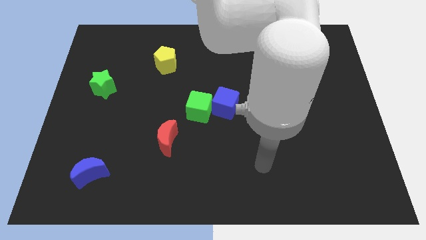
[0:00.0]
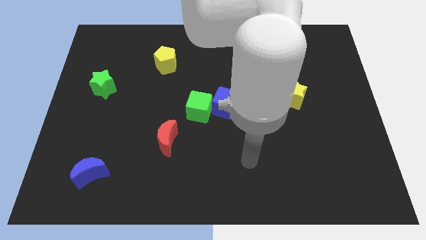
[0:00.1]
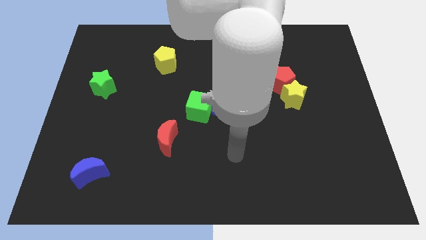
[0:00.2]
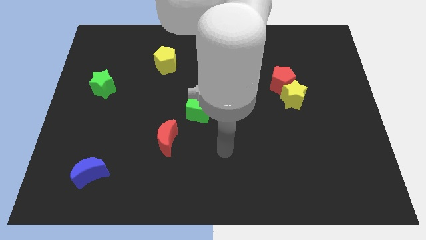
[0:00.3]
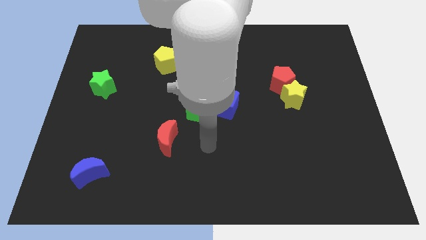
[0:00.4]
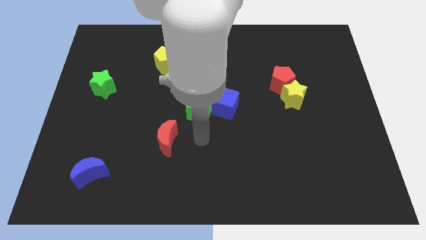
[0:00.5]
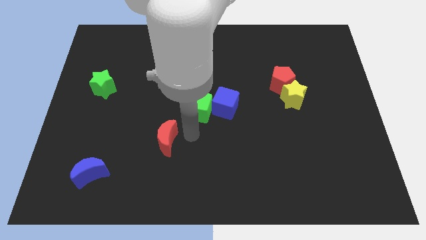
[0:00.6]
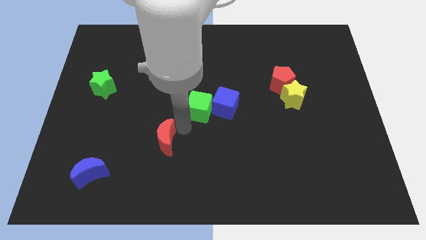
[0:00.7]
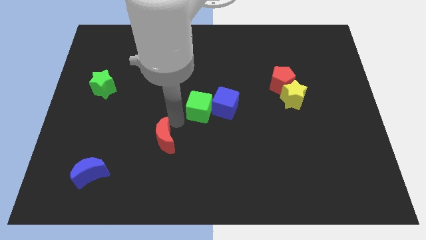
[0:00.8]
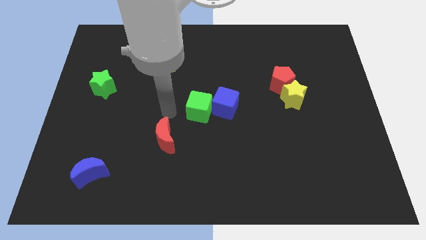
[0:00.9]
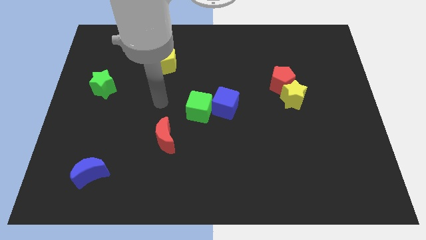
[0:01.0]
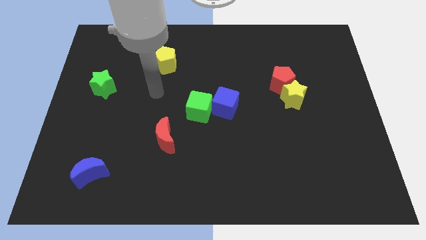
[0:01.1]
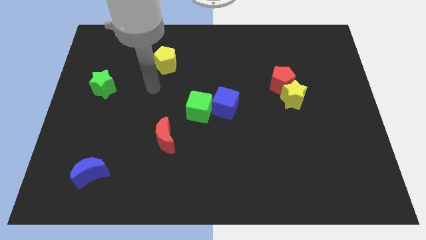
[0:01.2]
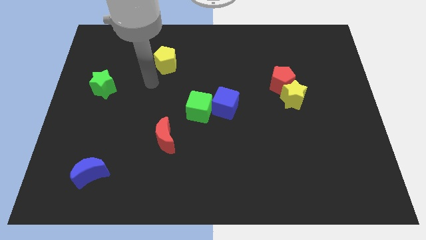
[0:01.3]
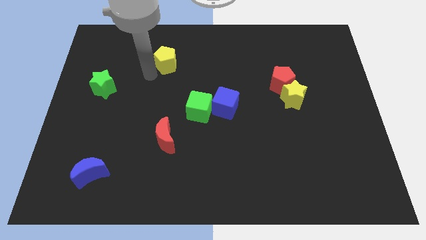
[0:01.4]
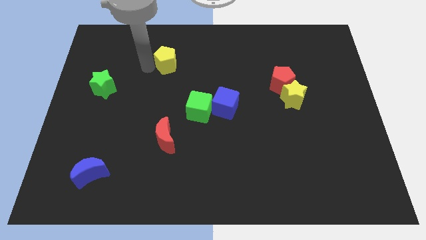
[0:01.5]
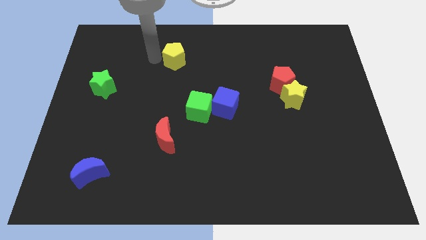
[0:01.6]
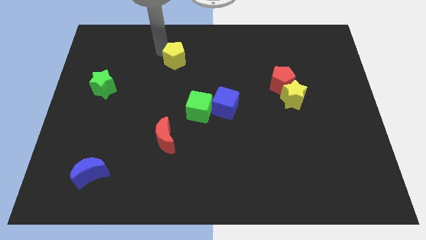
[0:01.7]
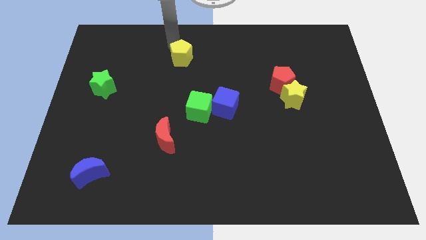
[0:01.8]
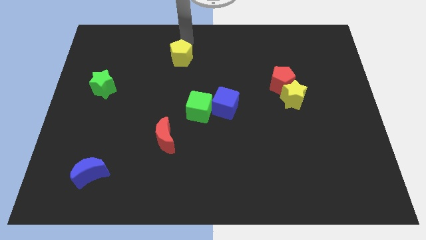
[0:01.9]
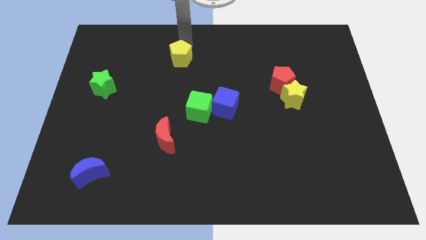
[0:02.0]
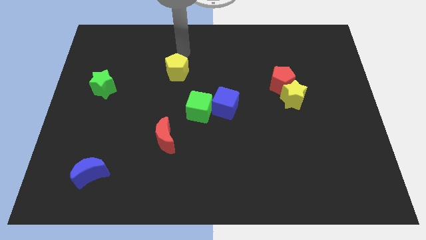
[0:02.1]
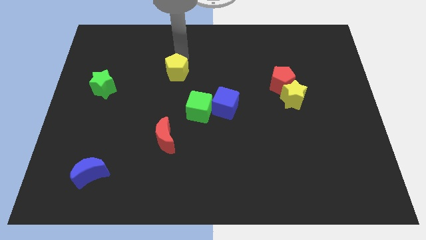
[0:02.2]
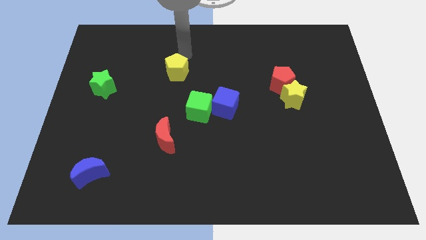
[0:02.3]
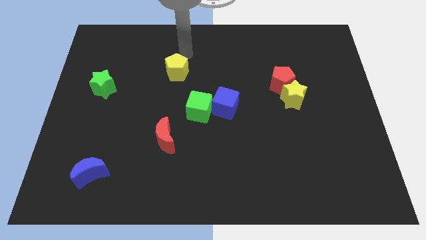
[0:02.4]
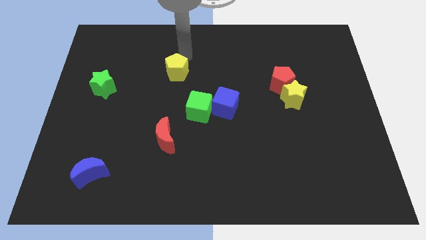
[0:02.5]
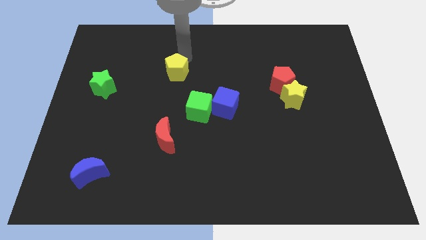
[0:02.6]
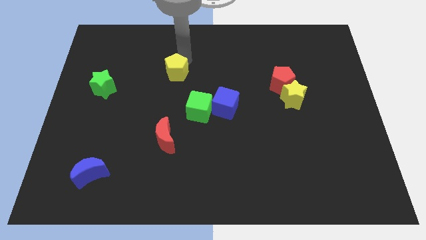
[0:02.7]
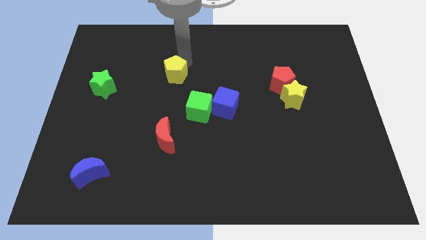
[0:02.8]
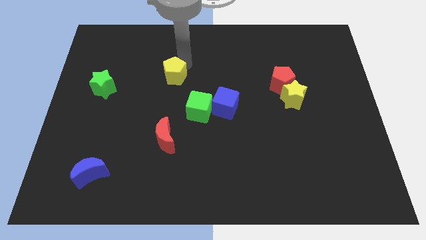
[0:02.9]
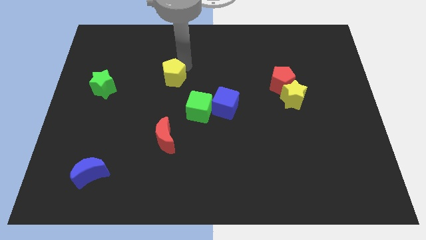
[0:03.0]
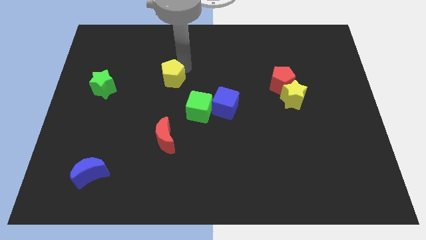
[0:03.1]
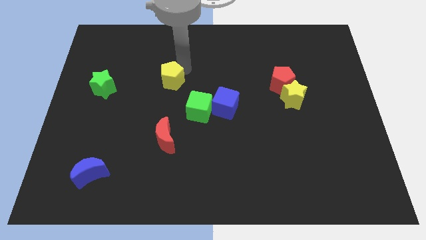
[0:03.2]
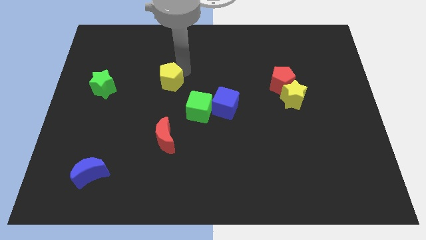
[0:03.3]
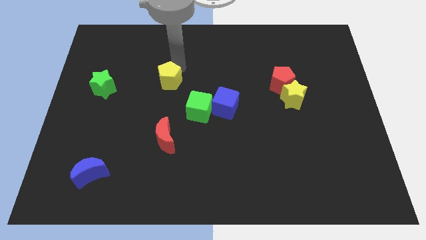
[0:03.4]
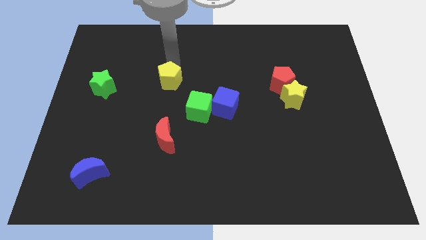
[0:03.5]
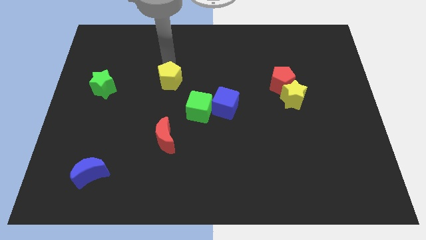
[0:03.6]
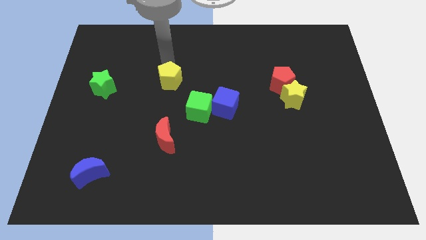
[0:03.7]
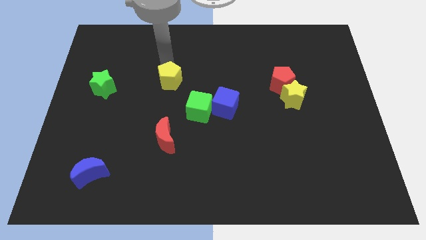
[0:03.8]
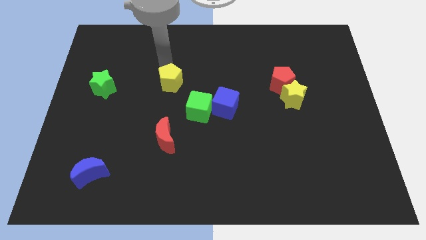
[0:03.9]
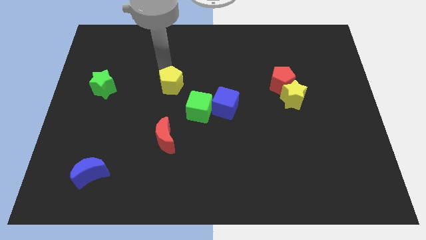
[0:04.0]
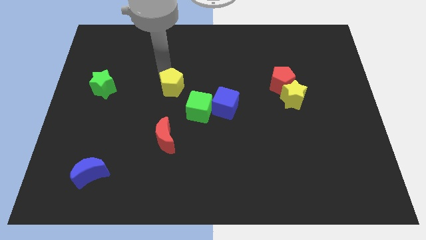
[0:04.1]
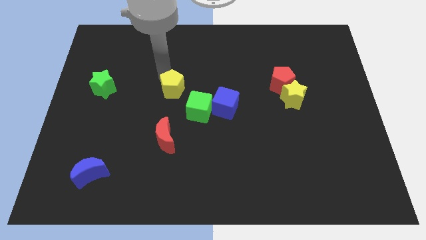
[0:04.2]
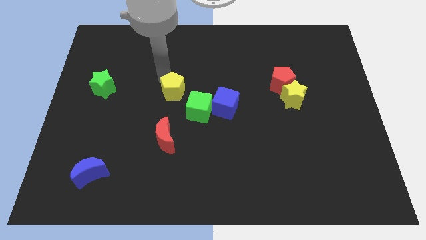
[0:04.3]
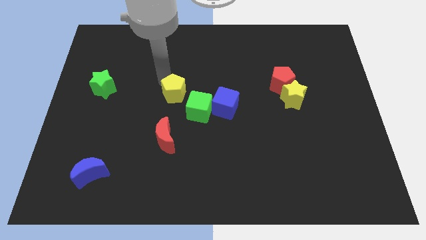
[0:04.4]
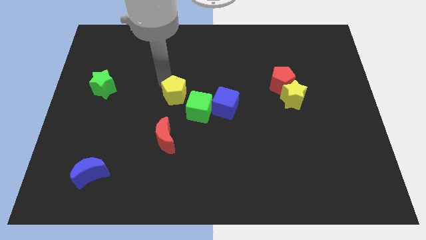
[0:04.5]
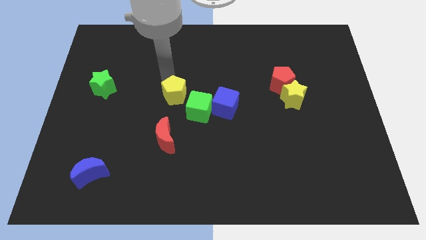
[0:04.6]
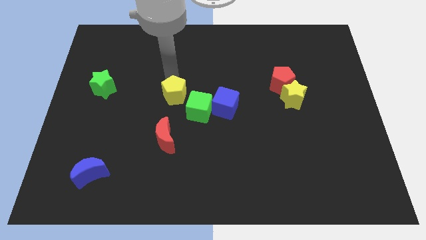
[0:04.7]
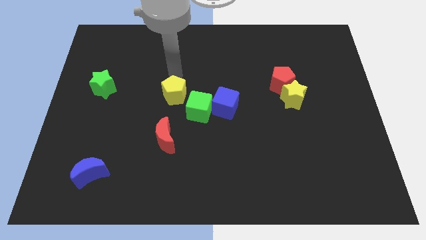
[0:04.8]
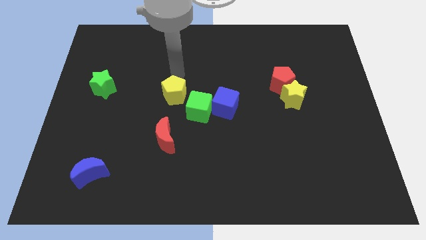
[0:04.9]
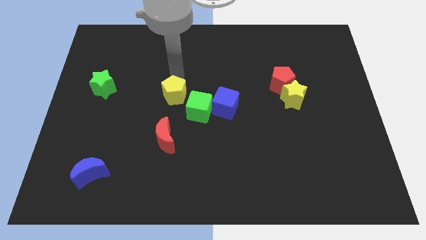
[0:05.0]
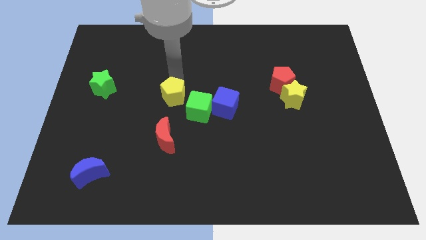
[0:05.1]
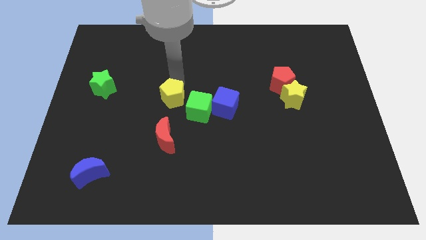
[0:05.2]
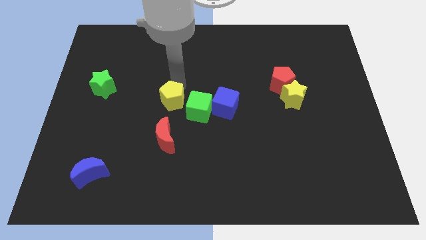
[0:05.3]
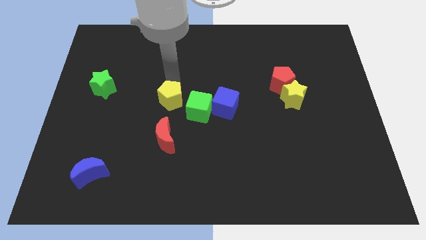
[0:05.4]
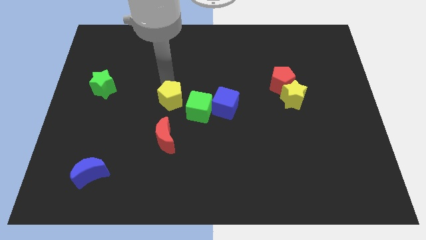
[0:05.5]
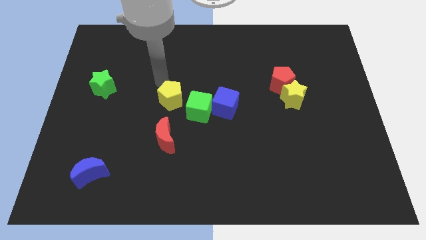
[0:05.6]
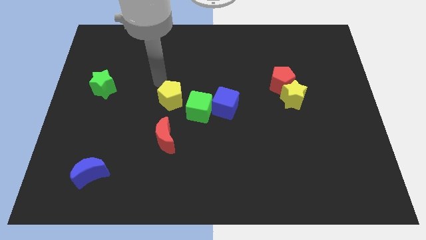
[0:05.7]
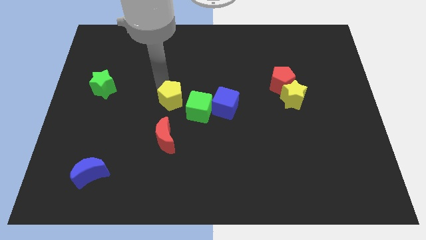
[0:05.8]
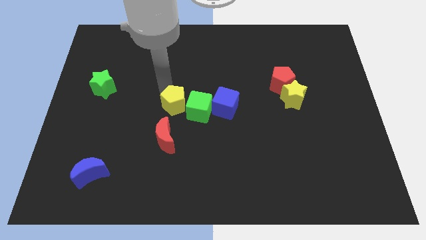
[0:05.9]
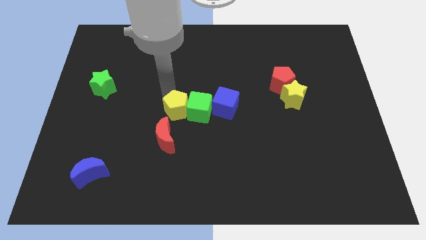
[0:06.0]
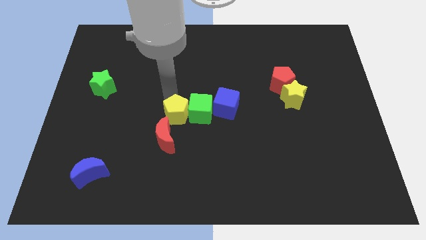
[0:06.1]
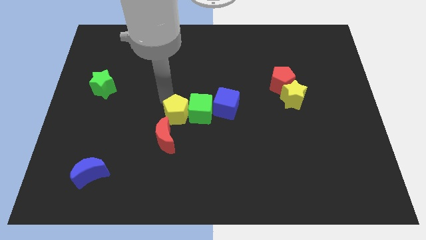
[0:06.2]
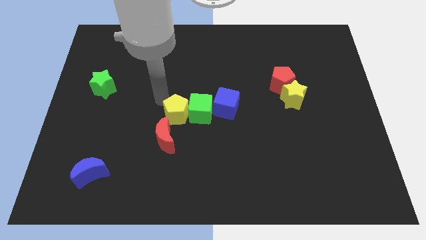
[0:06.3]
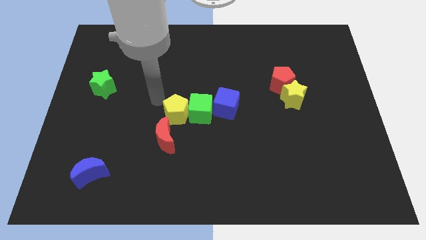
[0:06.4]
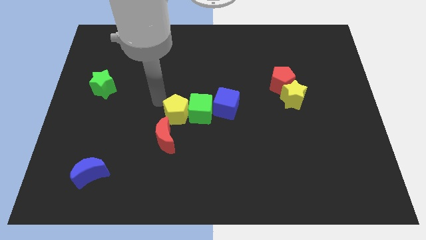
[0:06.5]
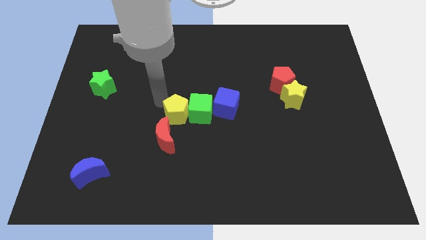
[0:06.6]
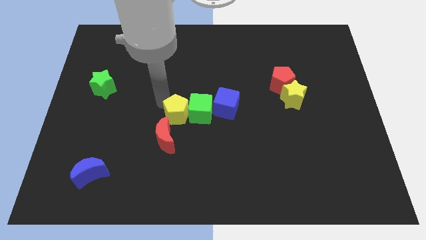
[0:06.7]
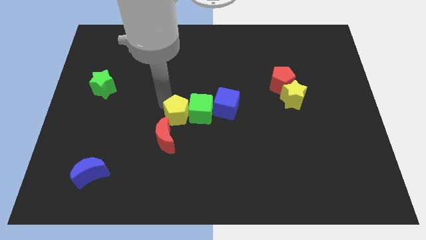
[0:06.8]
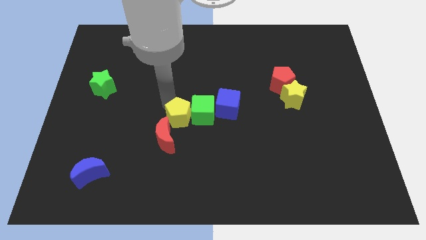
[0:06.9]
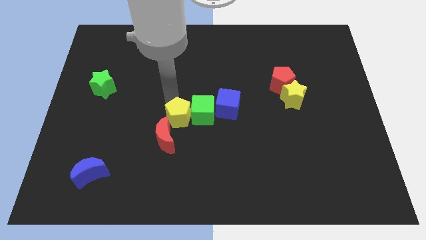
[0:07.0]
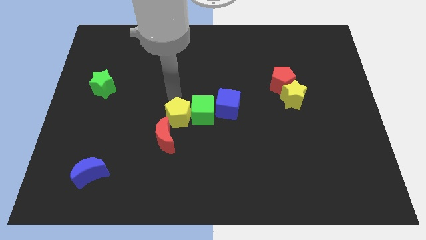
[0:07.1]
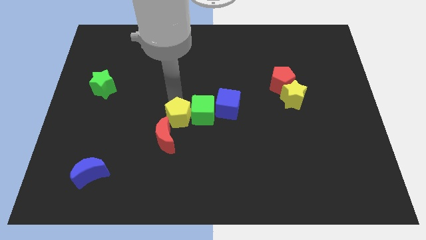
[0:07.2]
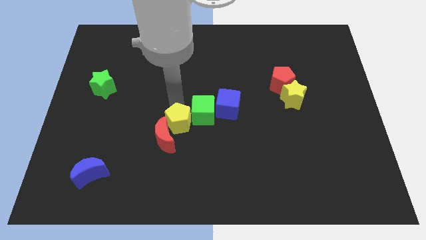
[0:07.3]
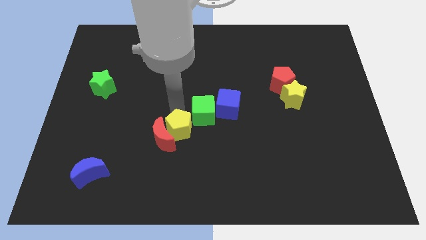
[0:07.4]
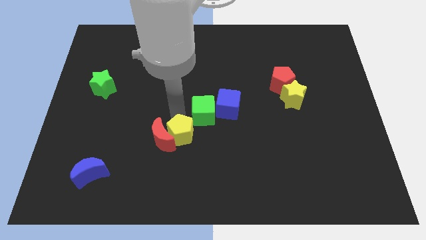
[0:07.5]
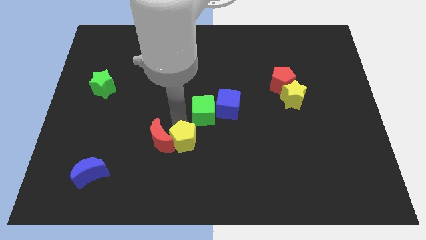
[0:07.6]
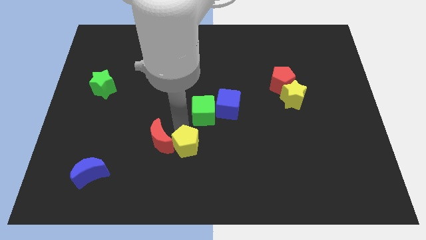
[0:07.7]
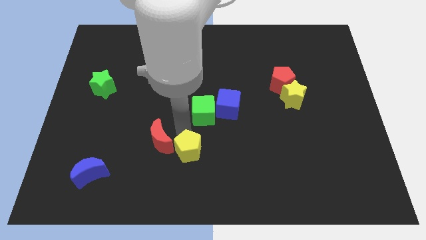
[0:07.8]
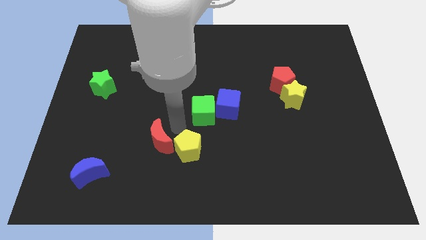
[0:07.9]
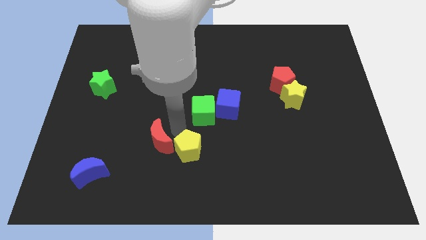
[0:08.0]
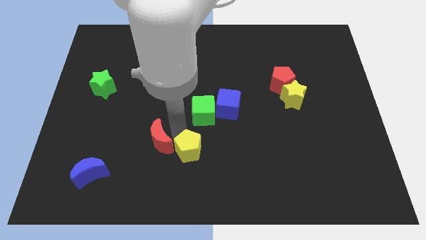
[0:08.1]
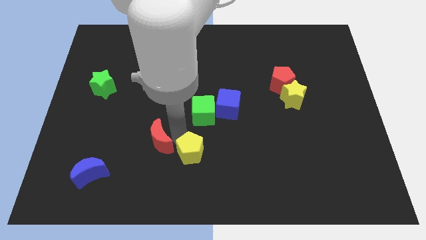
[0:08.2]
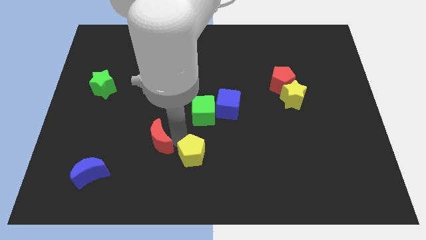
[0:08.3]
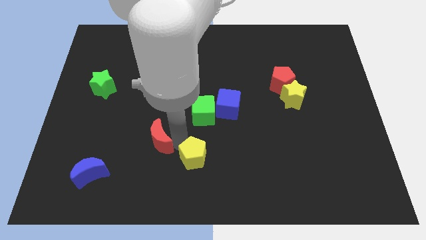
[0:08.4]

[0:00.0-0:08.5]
slide the yellow pentagon to the bottom side
